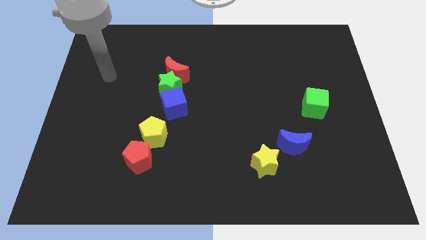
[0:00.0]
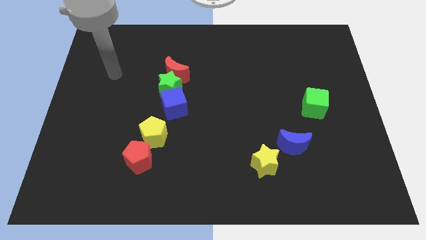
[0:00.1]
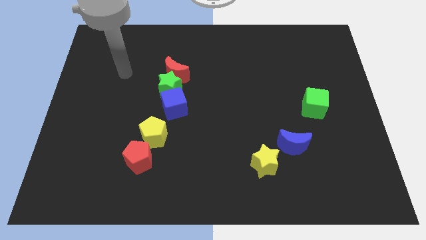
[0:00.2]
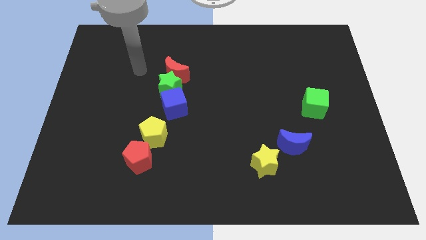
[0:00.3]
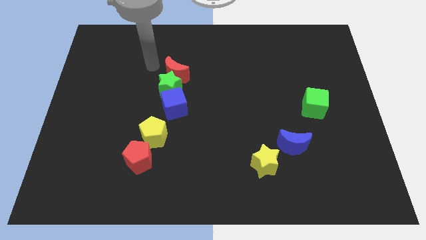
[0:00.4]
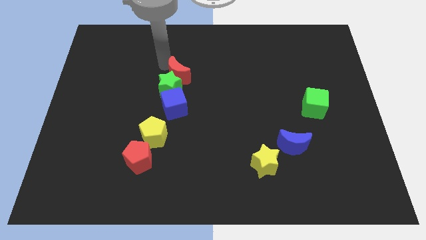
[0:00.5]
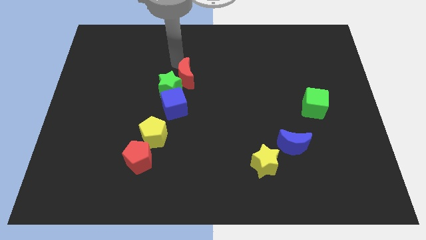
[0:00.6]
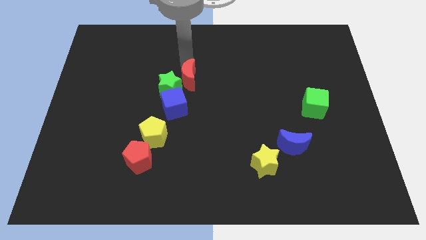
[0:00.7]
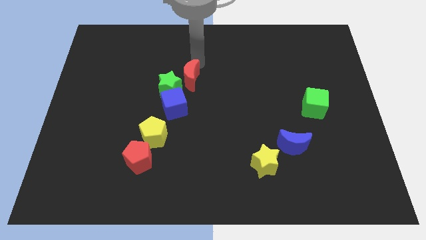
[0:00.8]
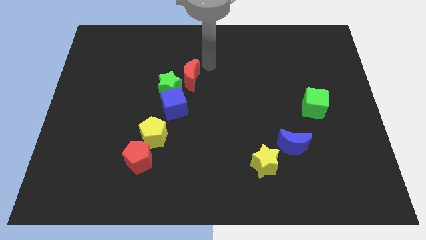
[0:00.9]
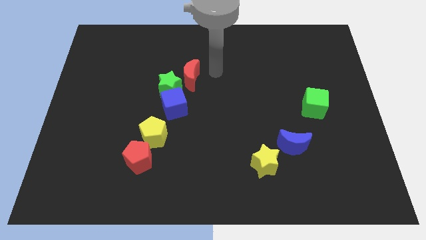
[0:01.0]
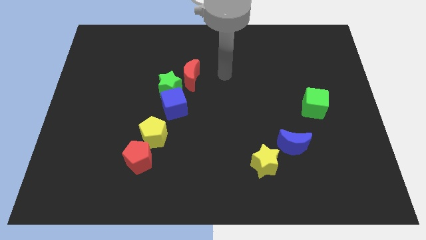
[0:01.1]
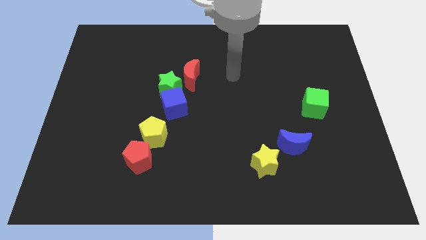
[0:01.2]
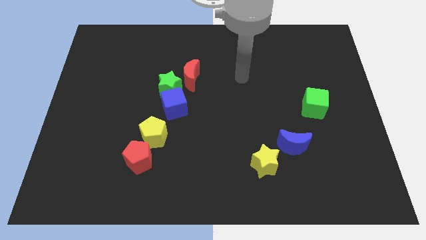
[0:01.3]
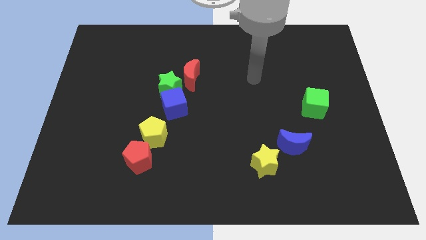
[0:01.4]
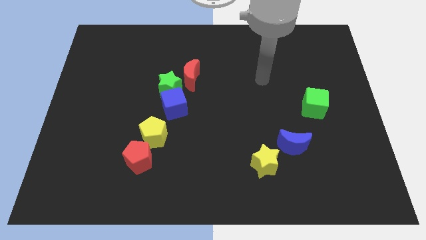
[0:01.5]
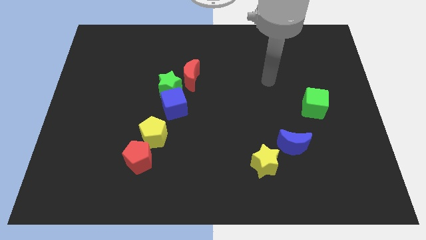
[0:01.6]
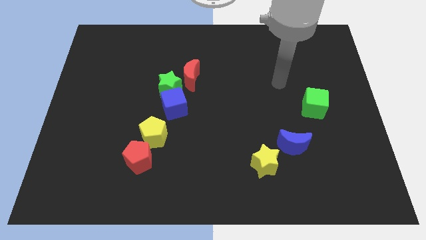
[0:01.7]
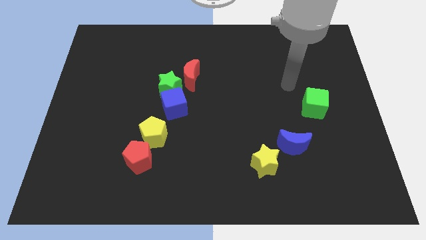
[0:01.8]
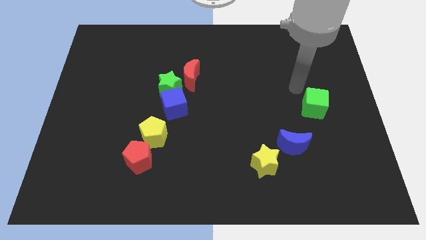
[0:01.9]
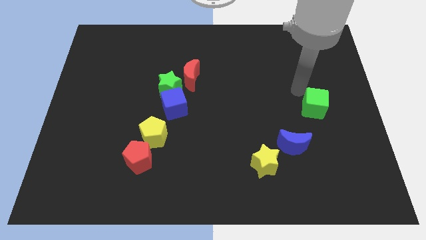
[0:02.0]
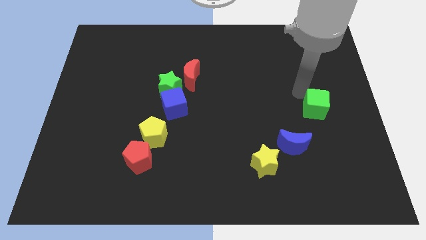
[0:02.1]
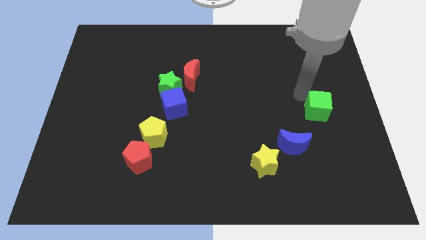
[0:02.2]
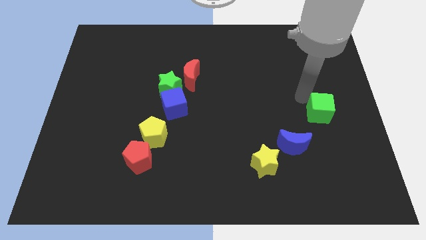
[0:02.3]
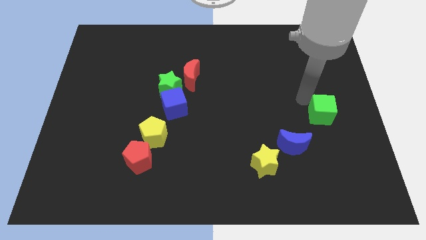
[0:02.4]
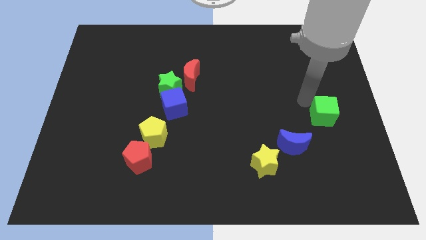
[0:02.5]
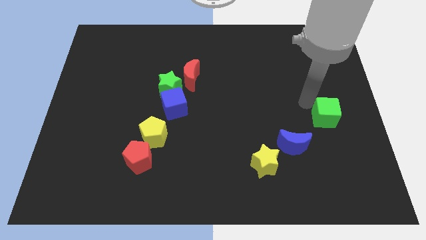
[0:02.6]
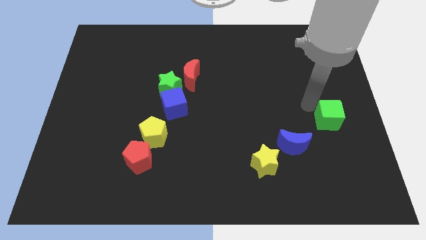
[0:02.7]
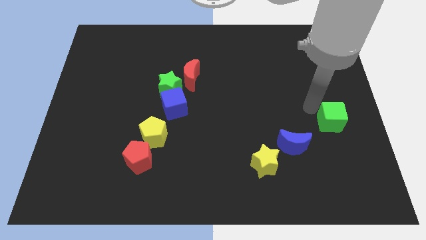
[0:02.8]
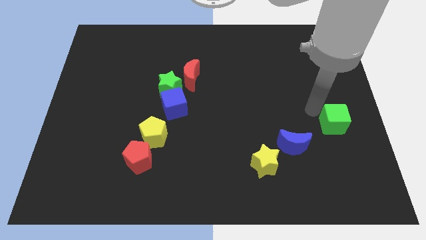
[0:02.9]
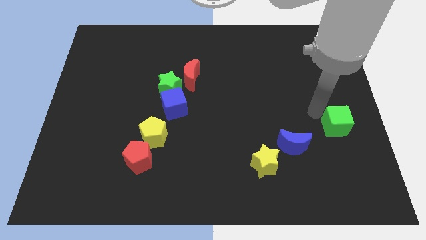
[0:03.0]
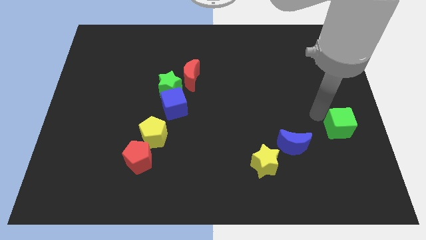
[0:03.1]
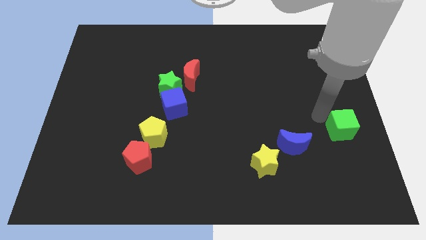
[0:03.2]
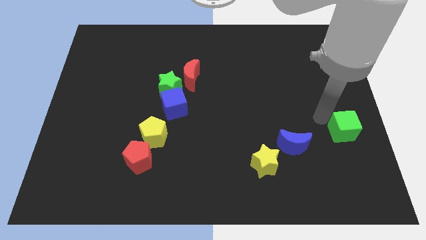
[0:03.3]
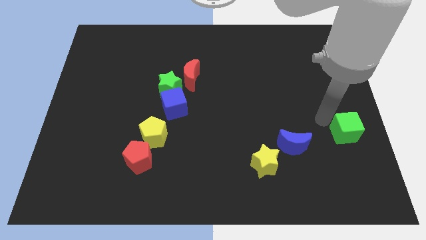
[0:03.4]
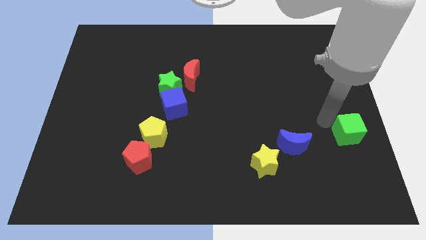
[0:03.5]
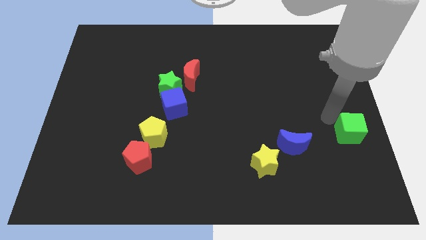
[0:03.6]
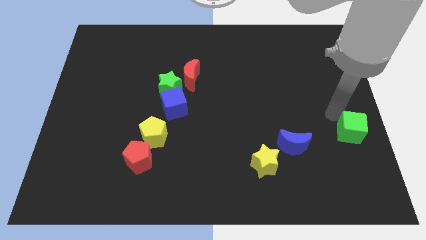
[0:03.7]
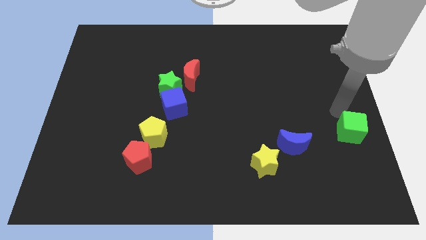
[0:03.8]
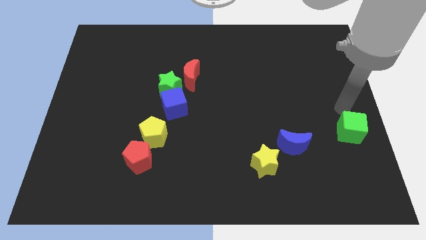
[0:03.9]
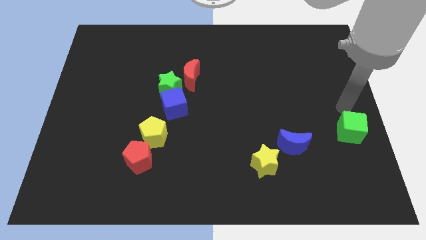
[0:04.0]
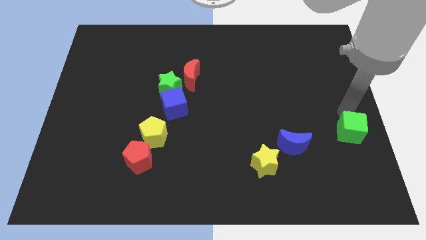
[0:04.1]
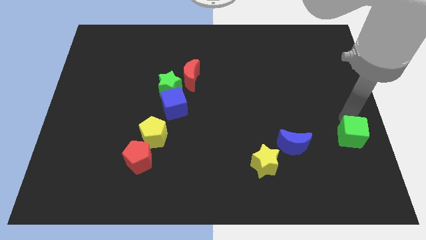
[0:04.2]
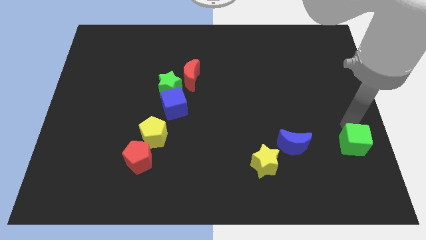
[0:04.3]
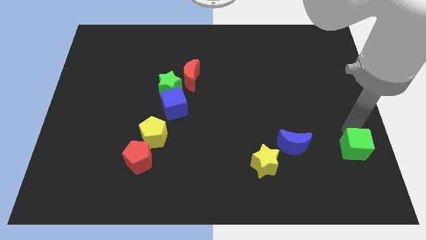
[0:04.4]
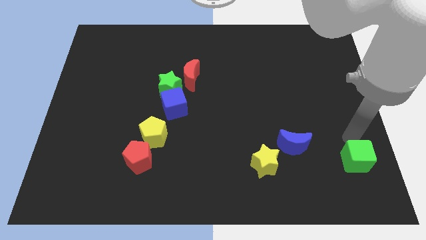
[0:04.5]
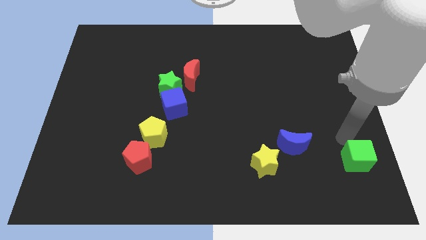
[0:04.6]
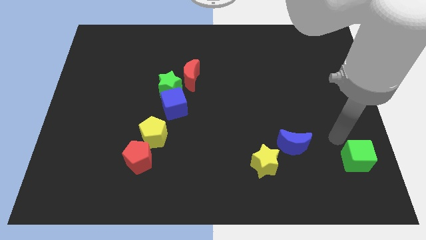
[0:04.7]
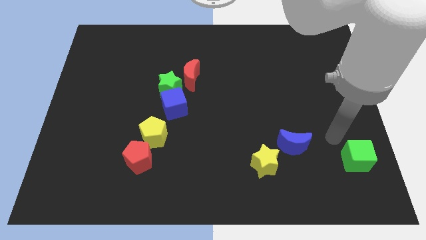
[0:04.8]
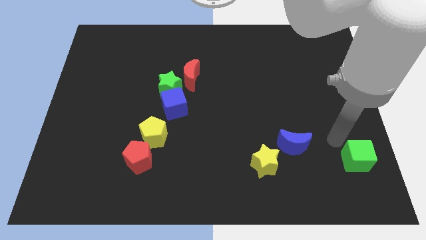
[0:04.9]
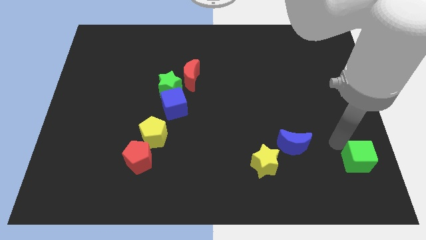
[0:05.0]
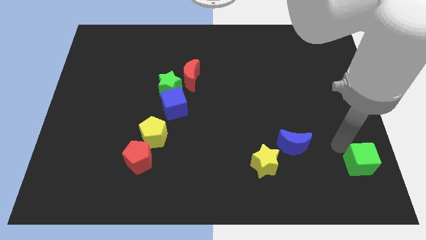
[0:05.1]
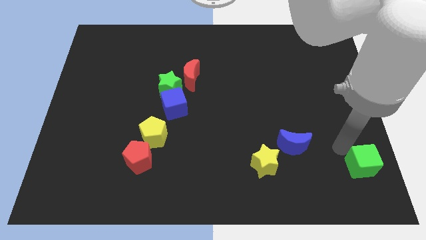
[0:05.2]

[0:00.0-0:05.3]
slide the green cube to the lower right corner

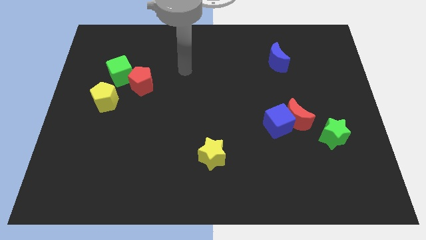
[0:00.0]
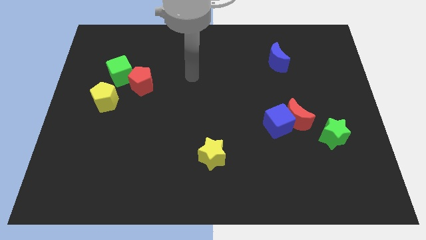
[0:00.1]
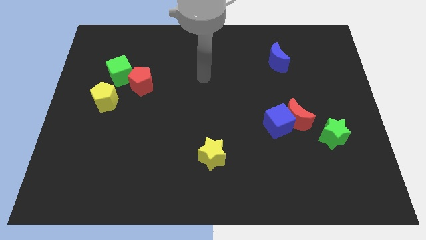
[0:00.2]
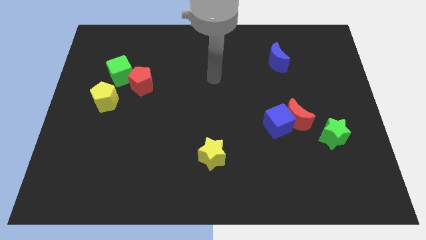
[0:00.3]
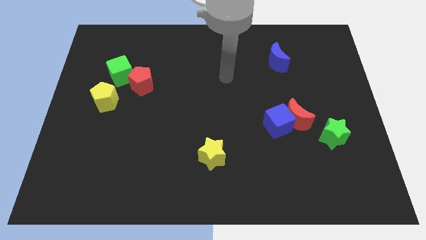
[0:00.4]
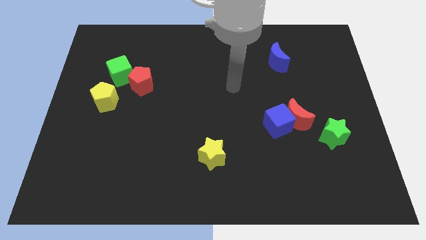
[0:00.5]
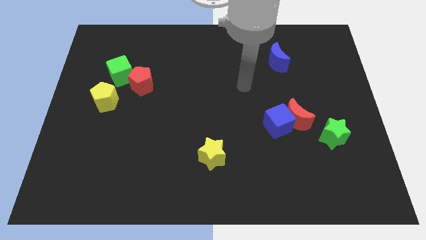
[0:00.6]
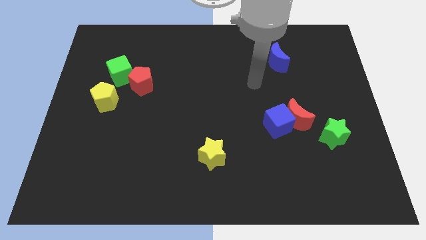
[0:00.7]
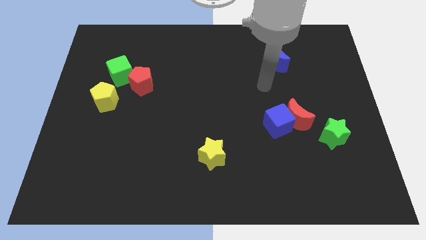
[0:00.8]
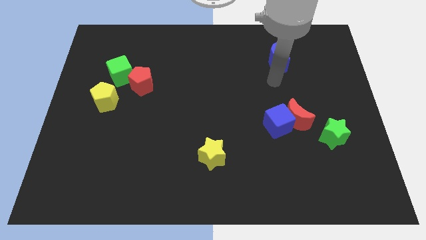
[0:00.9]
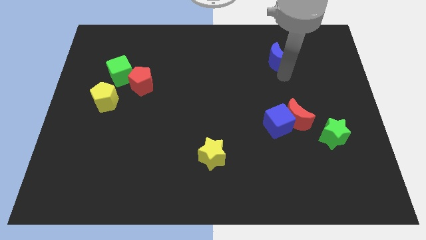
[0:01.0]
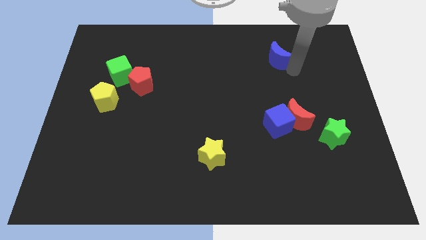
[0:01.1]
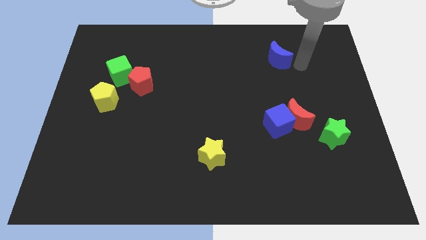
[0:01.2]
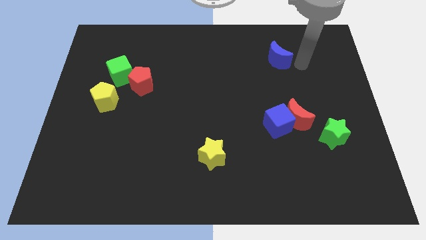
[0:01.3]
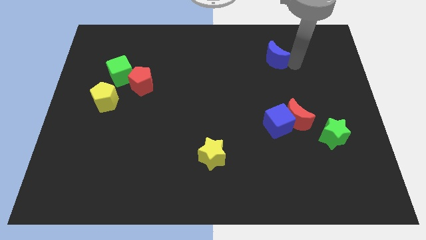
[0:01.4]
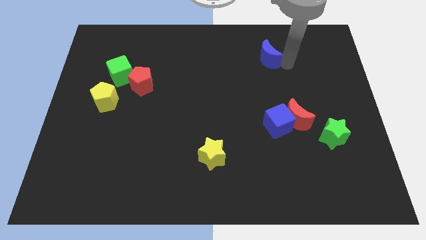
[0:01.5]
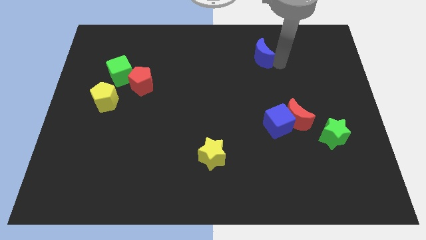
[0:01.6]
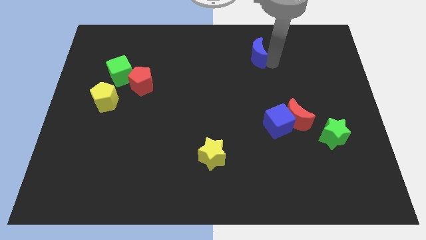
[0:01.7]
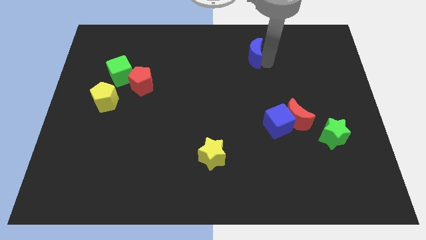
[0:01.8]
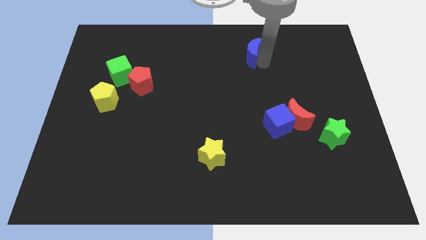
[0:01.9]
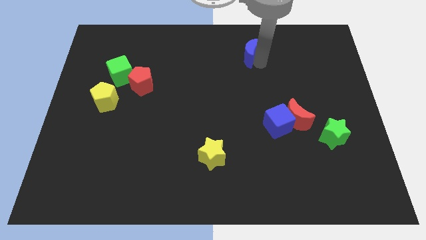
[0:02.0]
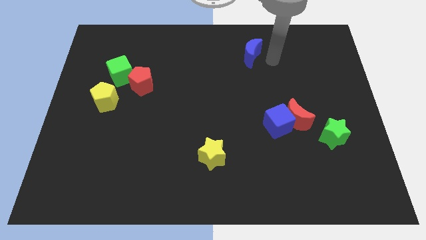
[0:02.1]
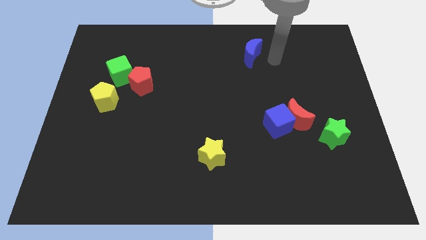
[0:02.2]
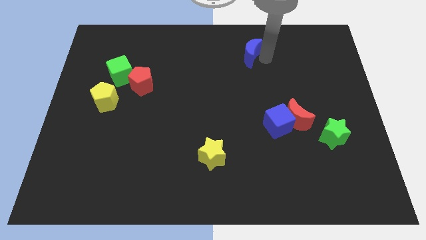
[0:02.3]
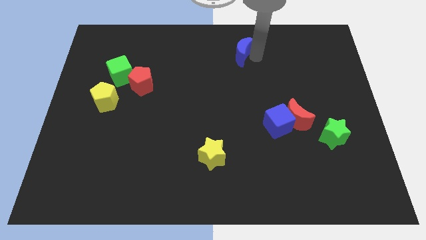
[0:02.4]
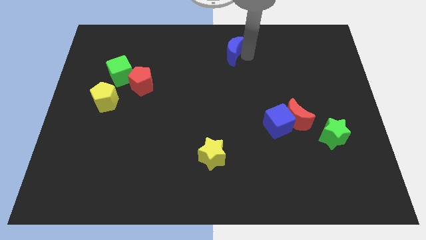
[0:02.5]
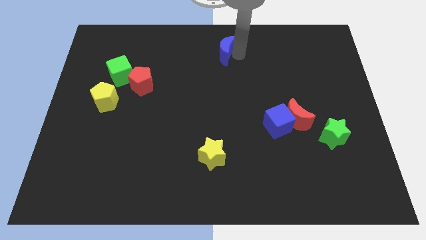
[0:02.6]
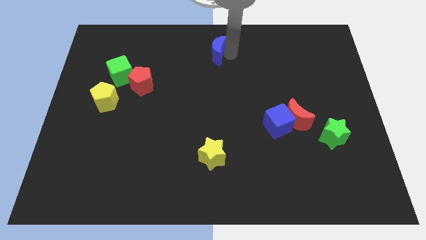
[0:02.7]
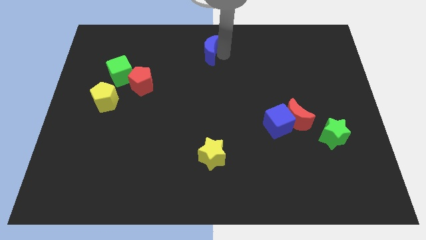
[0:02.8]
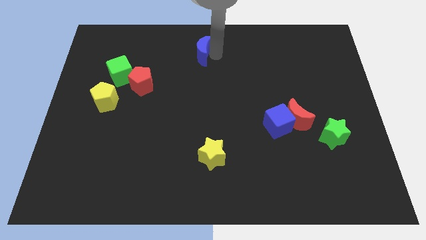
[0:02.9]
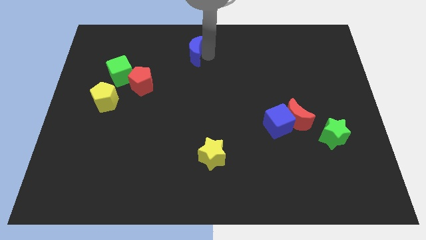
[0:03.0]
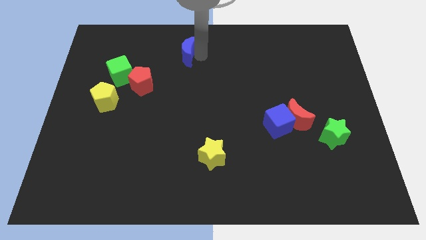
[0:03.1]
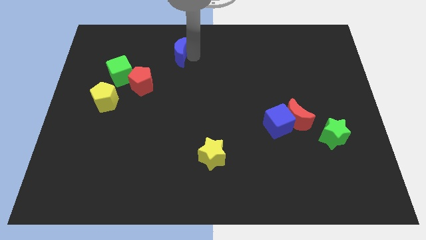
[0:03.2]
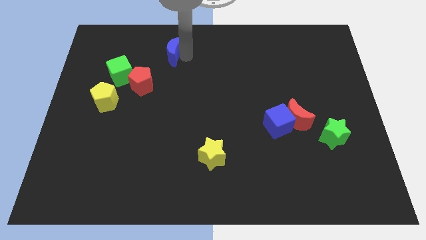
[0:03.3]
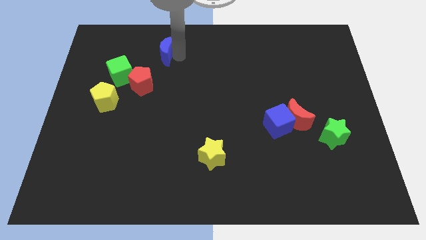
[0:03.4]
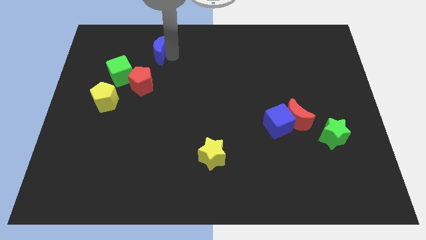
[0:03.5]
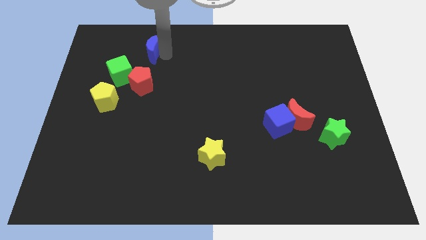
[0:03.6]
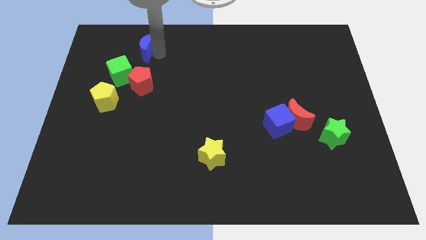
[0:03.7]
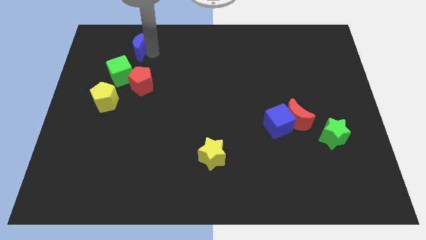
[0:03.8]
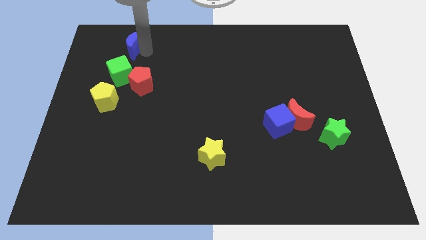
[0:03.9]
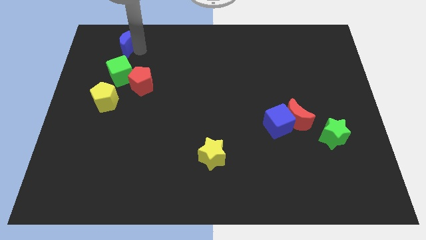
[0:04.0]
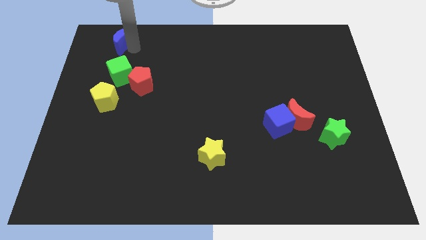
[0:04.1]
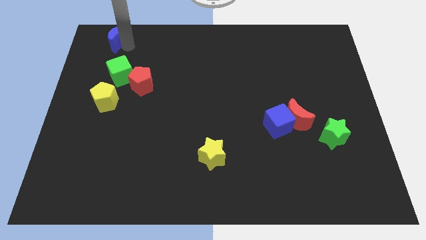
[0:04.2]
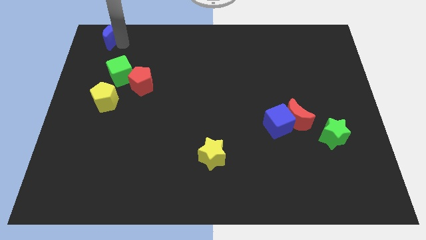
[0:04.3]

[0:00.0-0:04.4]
push the blue moon to the top left corner
